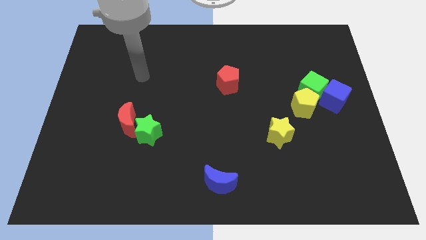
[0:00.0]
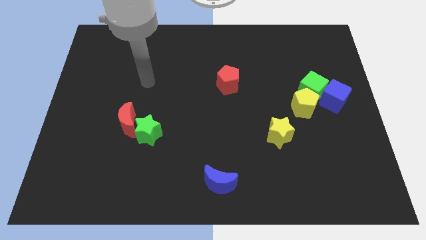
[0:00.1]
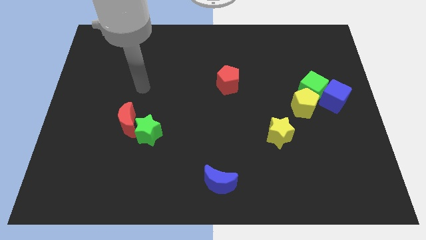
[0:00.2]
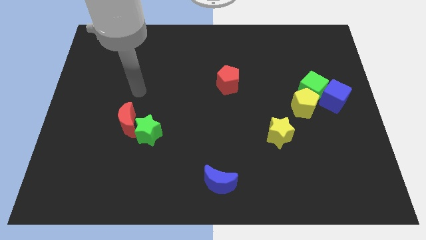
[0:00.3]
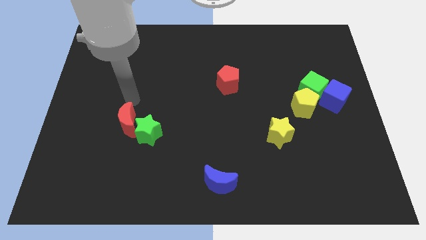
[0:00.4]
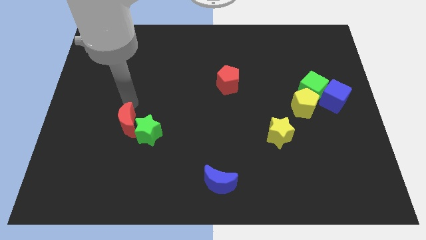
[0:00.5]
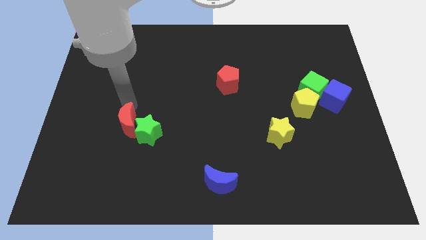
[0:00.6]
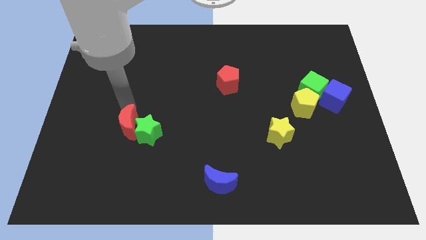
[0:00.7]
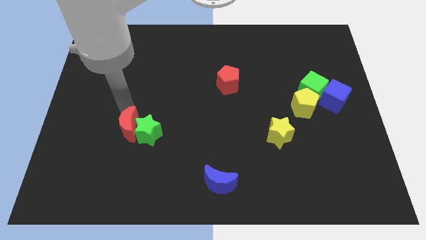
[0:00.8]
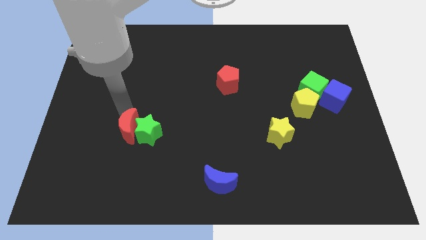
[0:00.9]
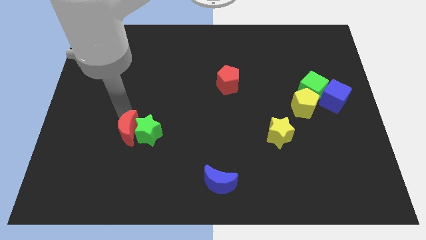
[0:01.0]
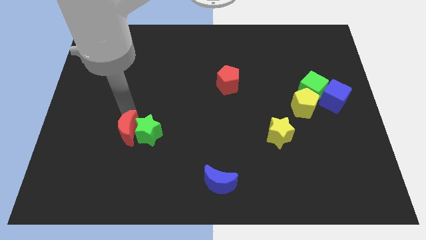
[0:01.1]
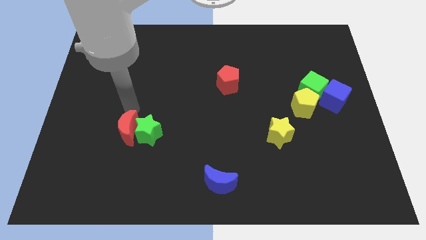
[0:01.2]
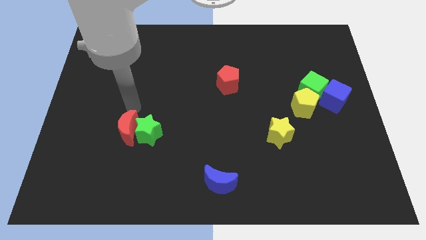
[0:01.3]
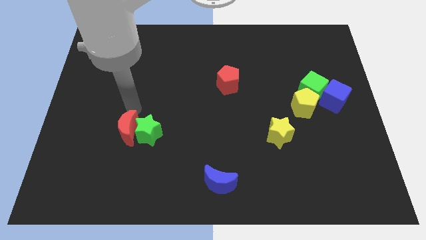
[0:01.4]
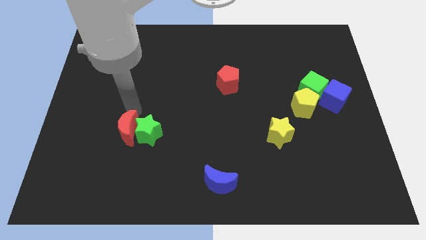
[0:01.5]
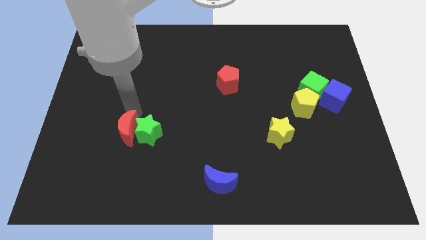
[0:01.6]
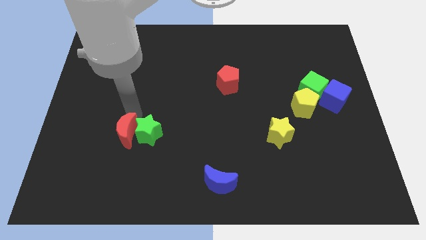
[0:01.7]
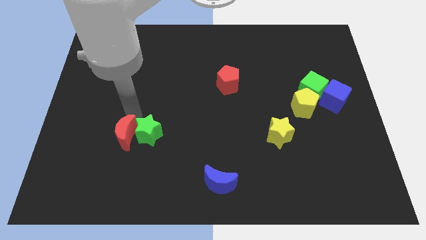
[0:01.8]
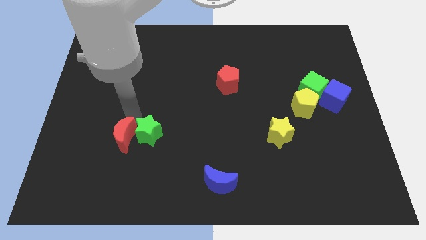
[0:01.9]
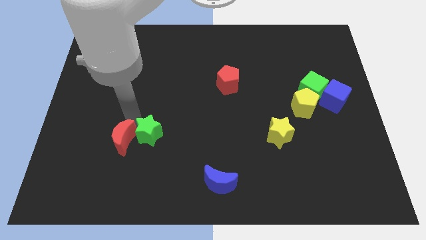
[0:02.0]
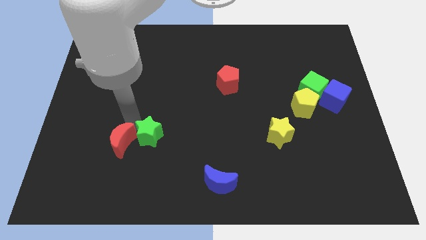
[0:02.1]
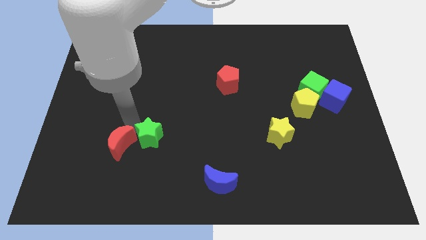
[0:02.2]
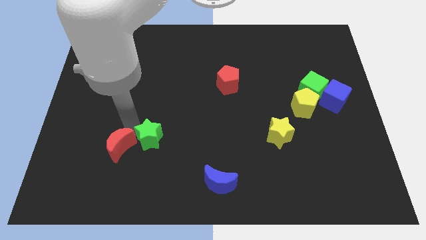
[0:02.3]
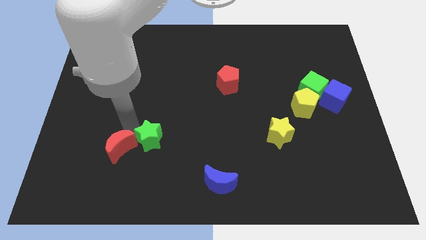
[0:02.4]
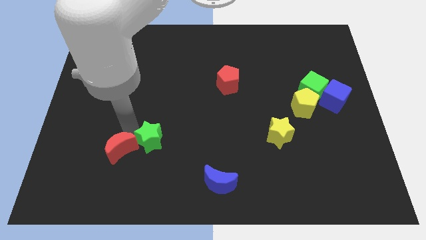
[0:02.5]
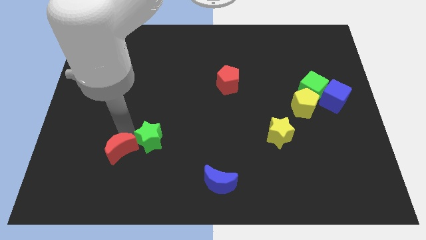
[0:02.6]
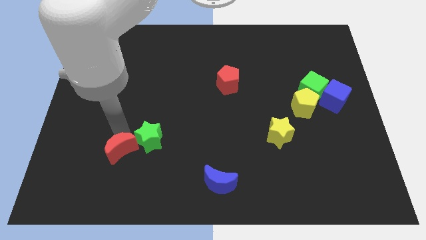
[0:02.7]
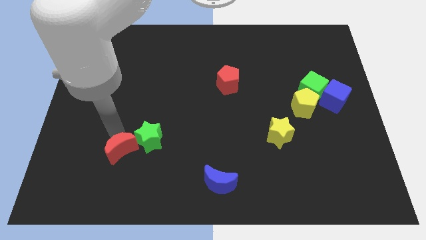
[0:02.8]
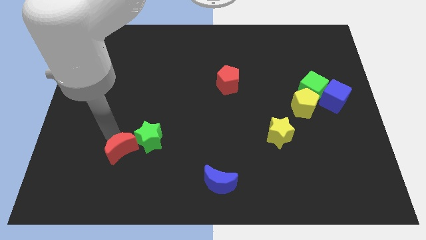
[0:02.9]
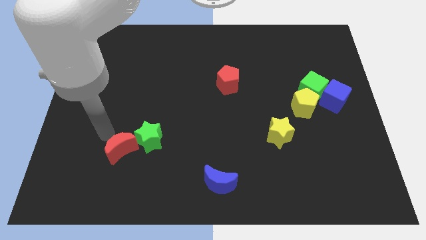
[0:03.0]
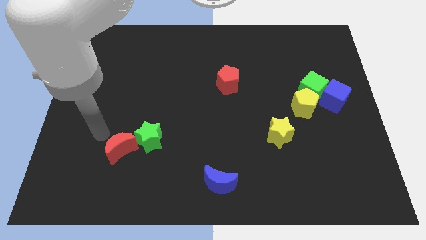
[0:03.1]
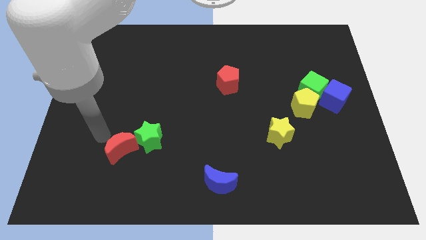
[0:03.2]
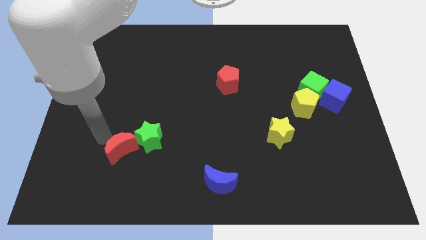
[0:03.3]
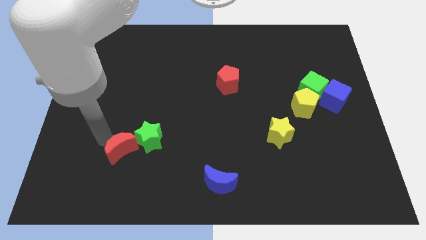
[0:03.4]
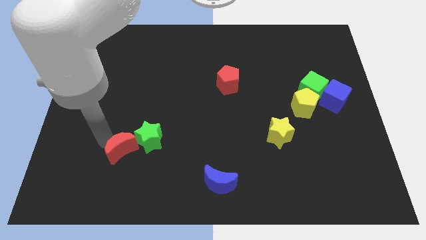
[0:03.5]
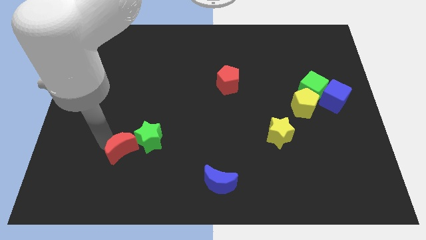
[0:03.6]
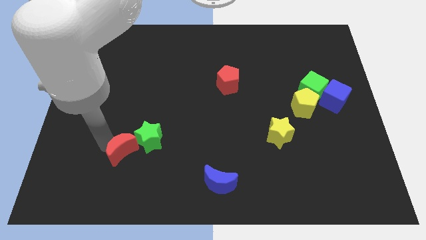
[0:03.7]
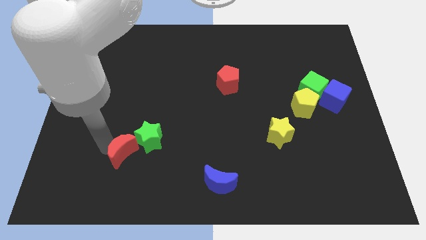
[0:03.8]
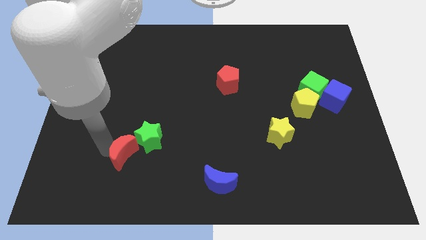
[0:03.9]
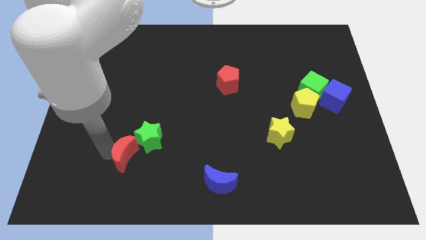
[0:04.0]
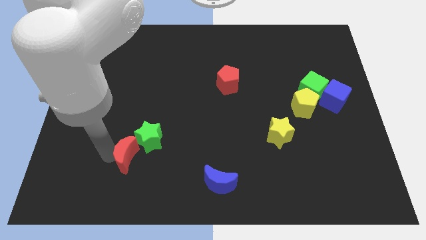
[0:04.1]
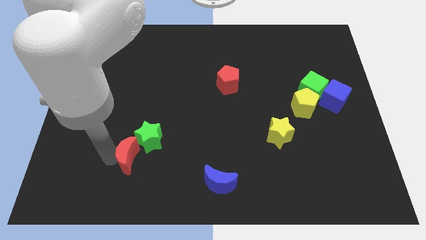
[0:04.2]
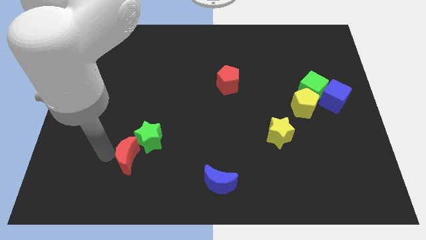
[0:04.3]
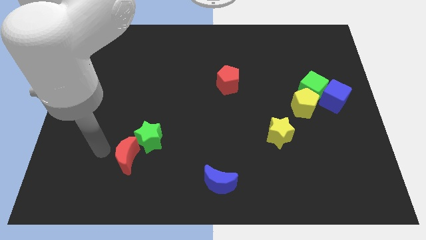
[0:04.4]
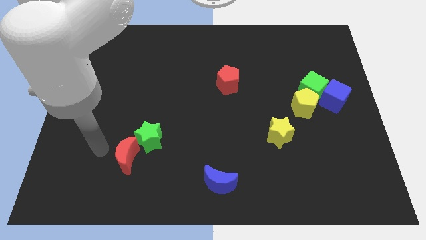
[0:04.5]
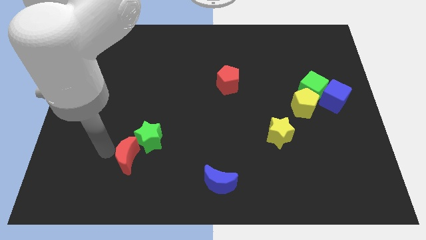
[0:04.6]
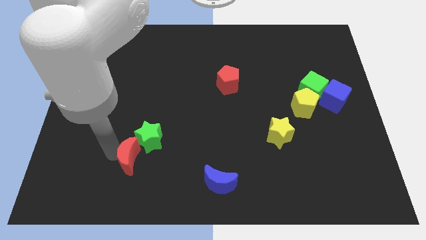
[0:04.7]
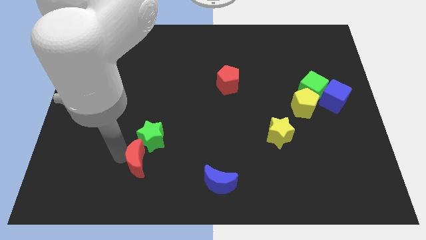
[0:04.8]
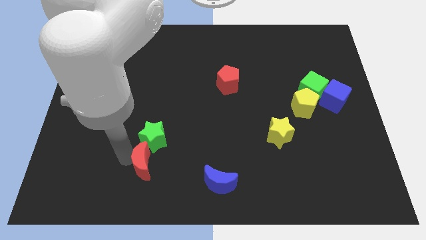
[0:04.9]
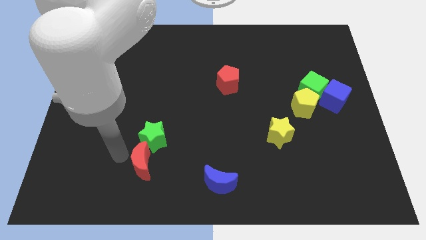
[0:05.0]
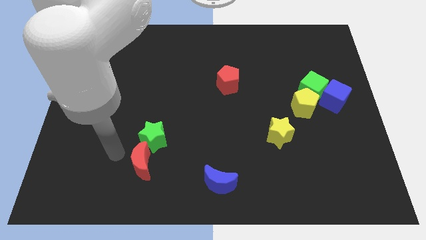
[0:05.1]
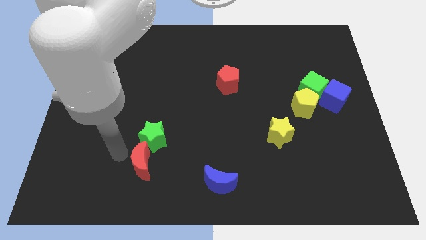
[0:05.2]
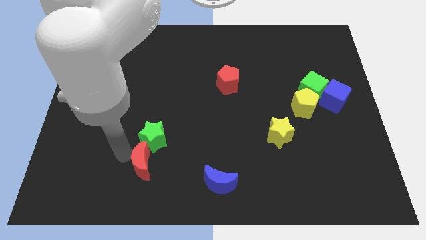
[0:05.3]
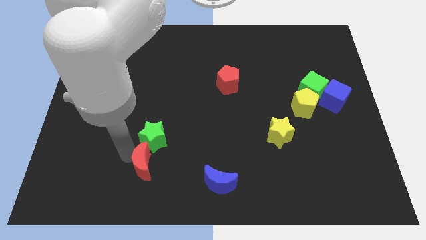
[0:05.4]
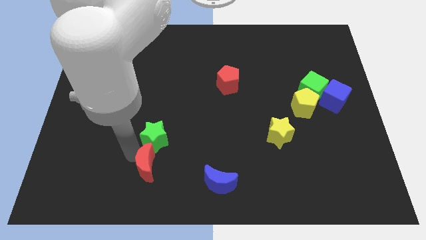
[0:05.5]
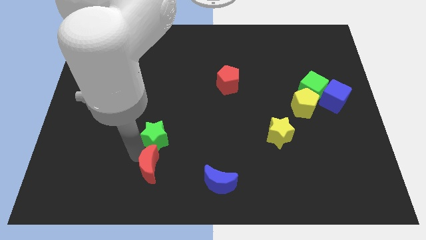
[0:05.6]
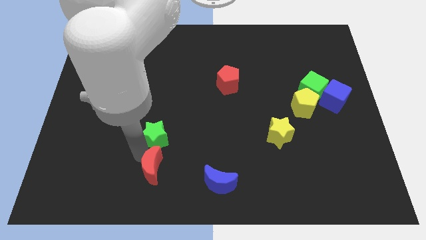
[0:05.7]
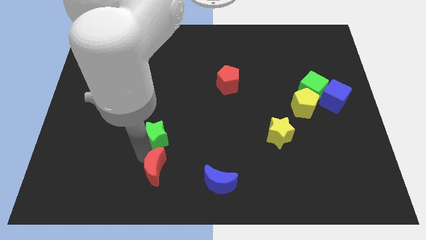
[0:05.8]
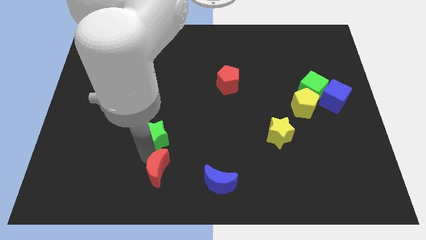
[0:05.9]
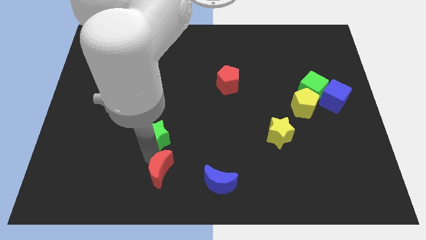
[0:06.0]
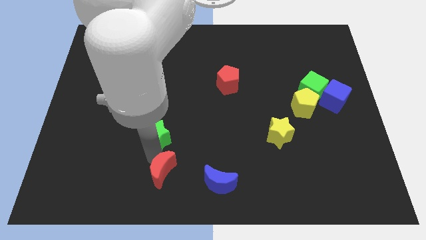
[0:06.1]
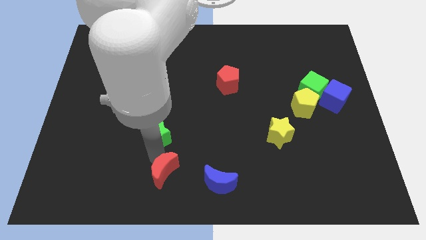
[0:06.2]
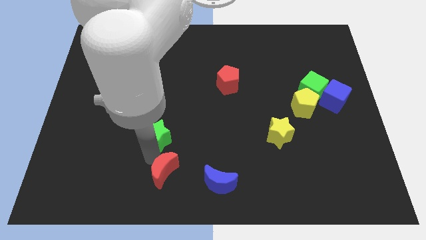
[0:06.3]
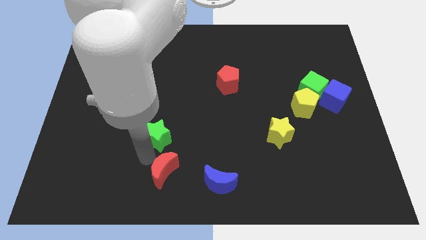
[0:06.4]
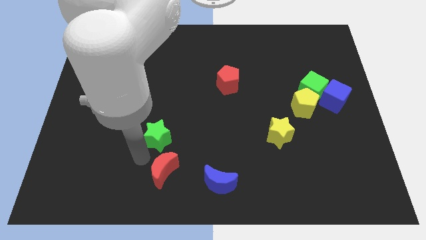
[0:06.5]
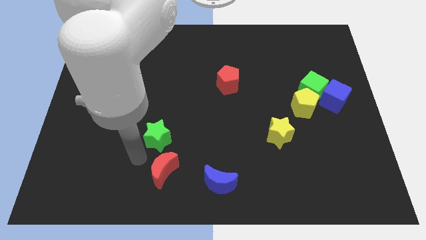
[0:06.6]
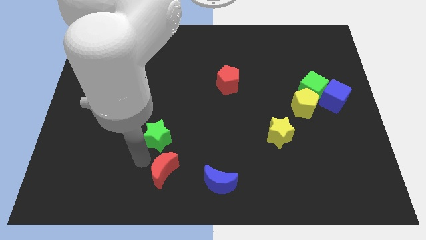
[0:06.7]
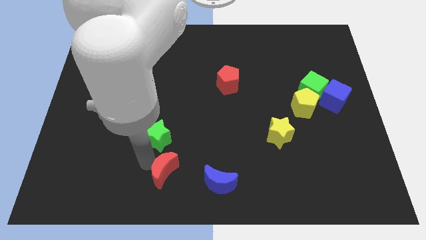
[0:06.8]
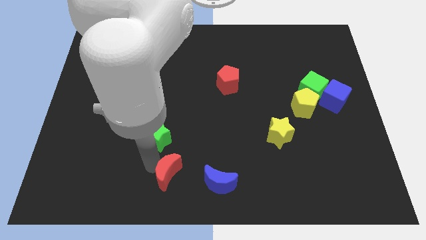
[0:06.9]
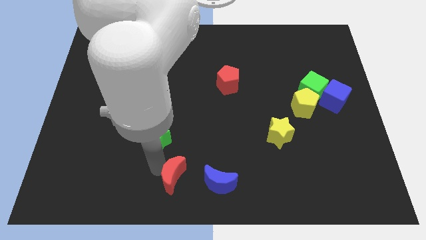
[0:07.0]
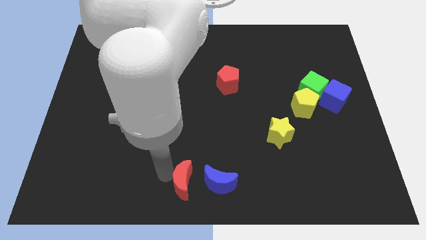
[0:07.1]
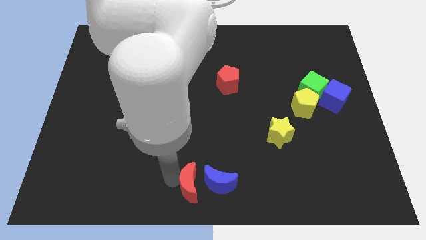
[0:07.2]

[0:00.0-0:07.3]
slide the red moon next to the blue moon
